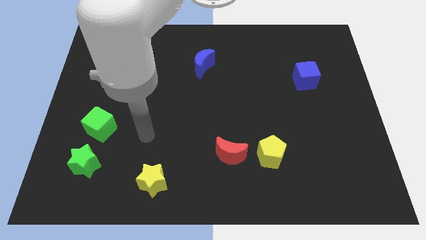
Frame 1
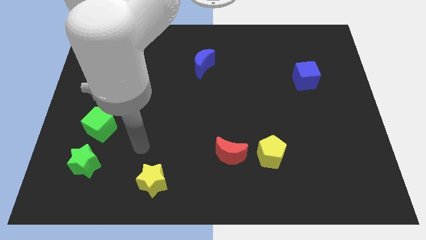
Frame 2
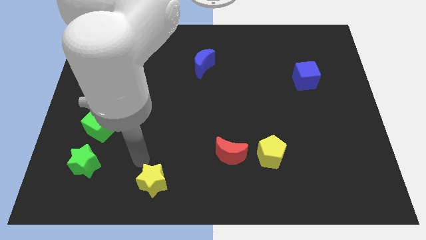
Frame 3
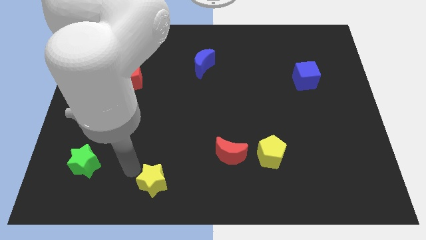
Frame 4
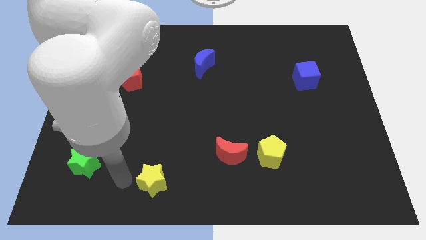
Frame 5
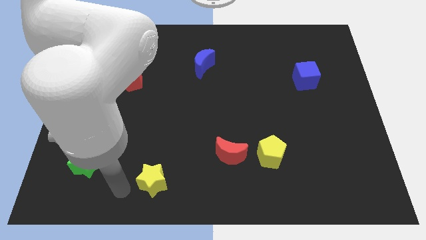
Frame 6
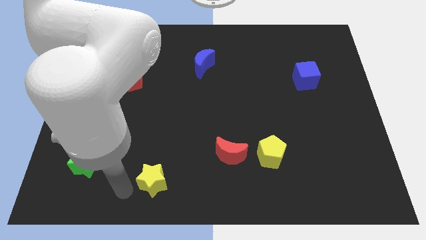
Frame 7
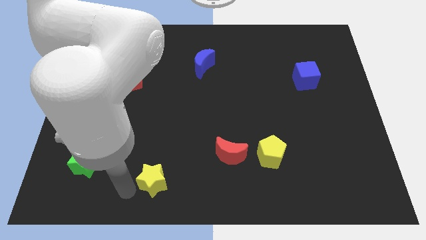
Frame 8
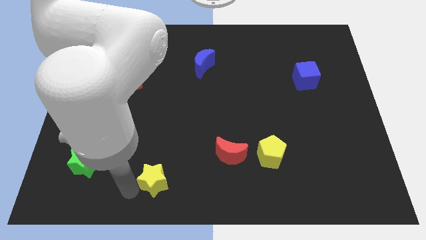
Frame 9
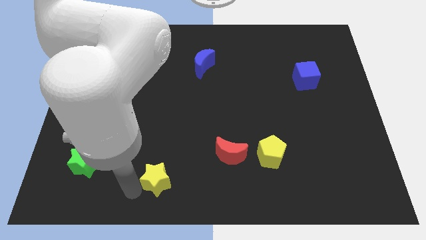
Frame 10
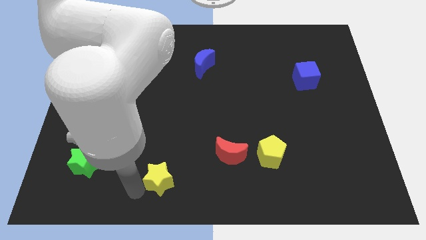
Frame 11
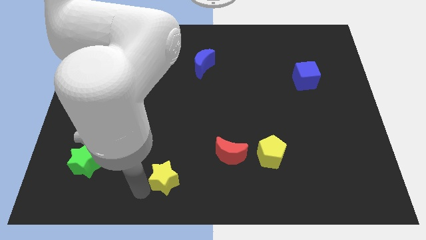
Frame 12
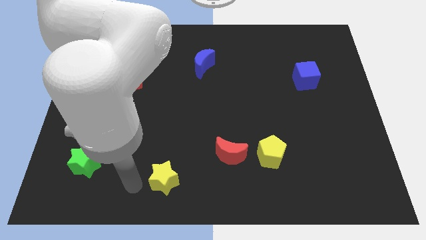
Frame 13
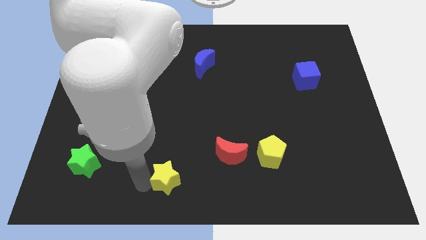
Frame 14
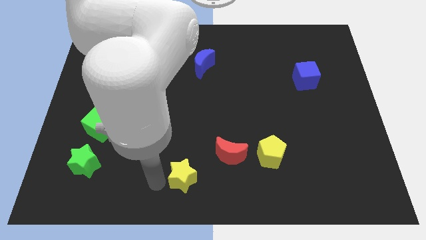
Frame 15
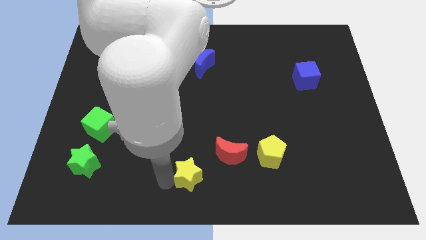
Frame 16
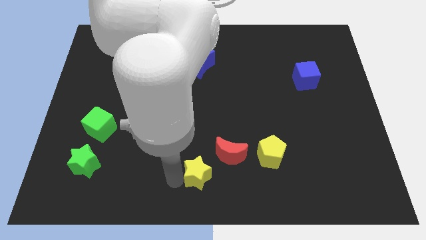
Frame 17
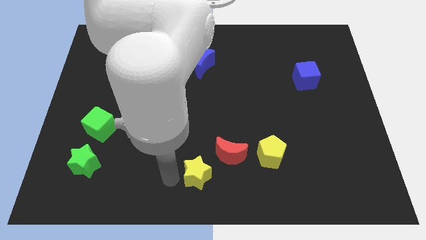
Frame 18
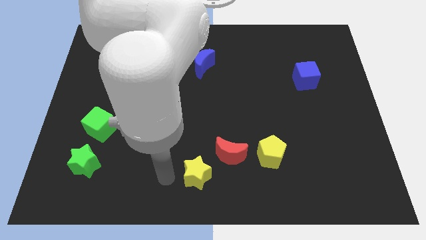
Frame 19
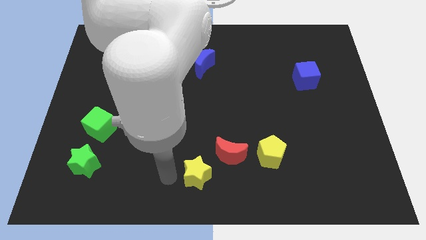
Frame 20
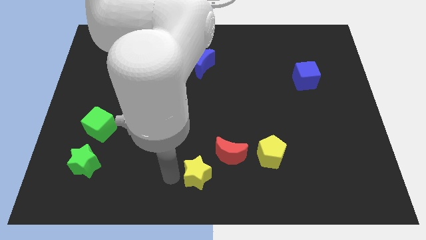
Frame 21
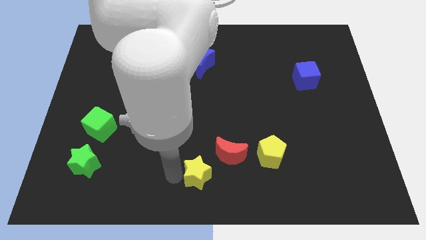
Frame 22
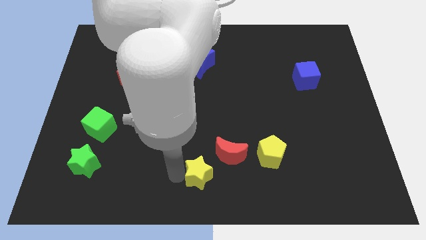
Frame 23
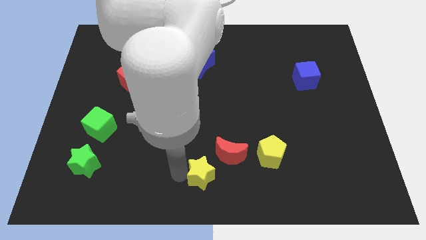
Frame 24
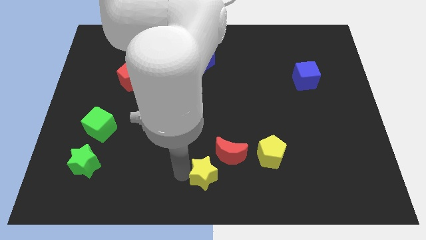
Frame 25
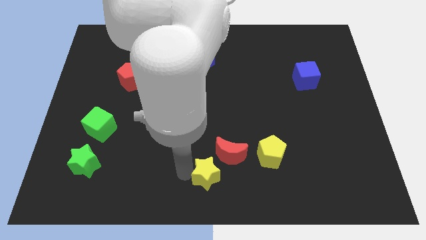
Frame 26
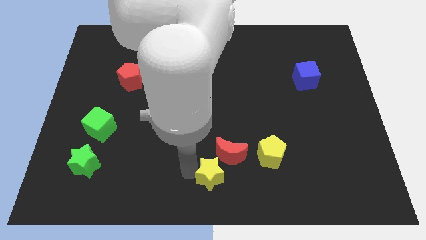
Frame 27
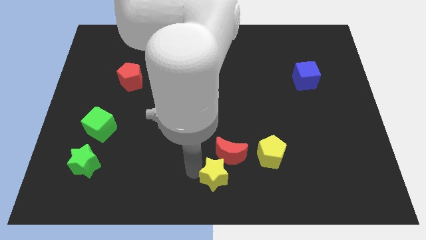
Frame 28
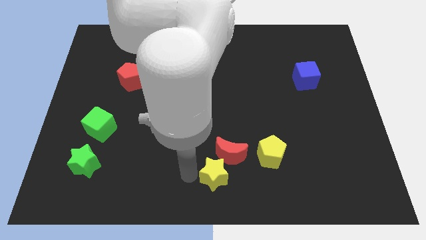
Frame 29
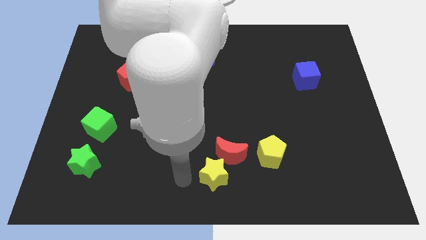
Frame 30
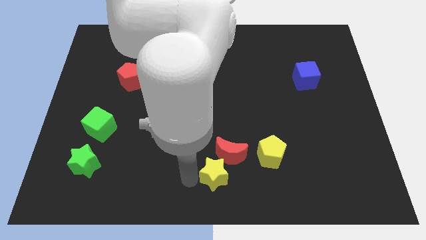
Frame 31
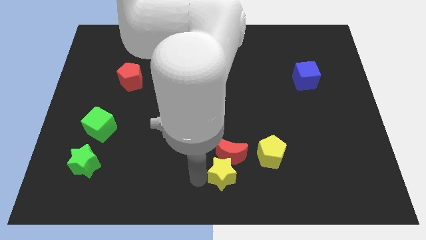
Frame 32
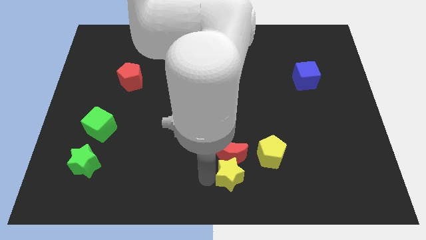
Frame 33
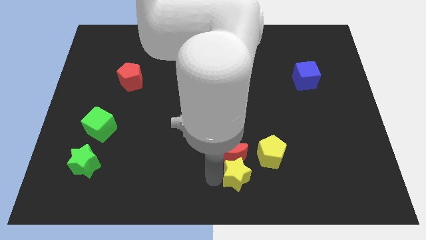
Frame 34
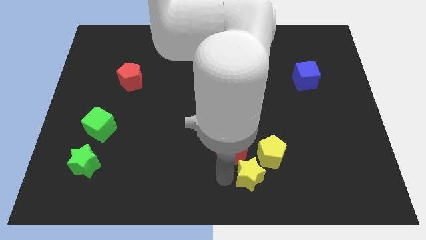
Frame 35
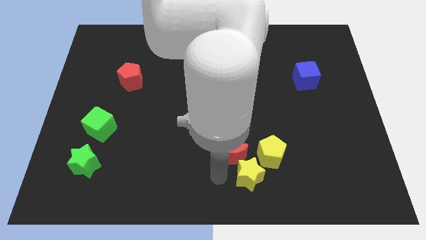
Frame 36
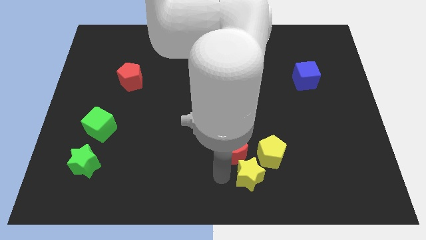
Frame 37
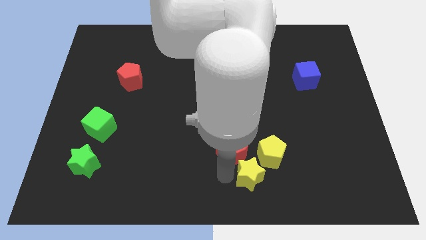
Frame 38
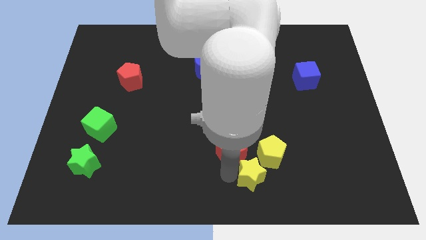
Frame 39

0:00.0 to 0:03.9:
push the yellow star to the right

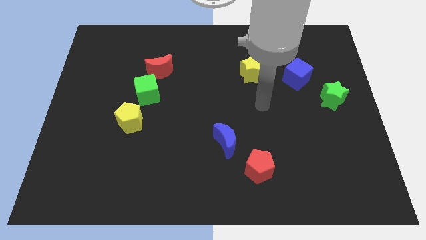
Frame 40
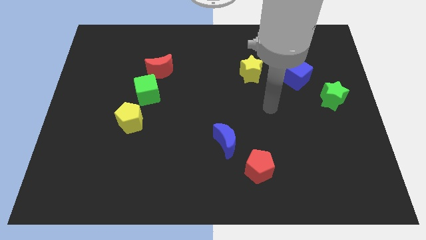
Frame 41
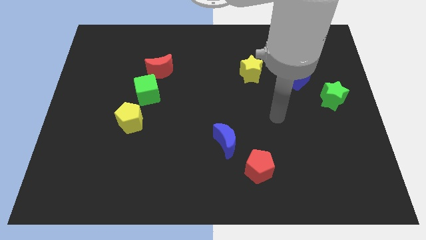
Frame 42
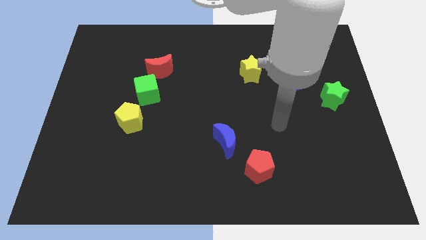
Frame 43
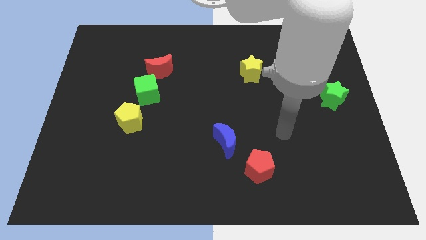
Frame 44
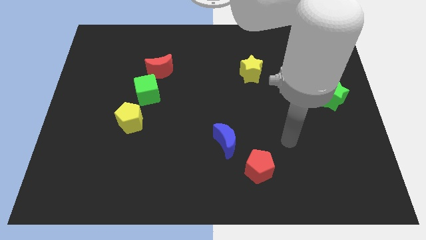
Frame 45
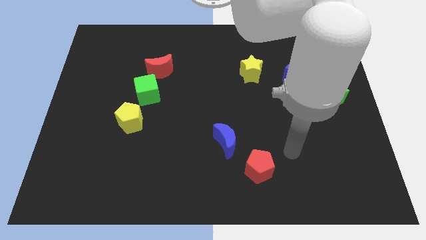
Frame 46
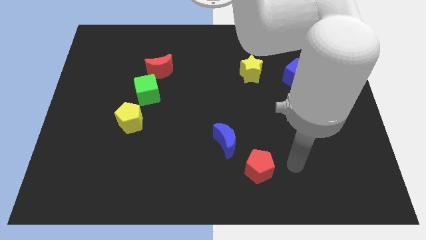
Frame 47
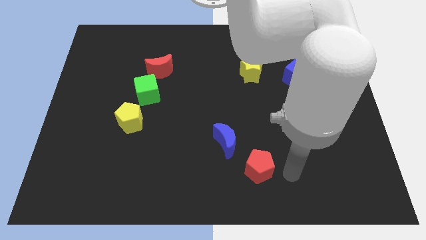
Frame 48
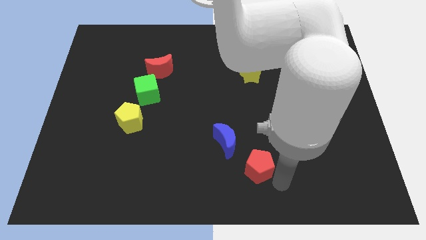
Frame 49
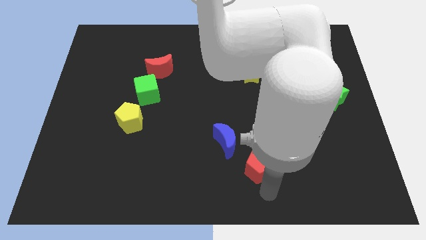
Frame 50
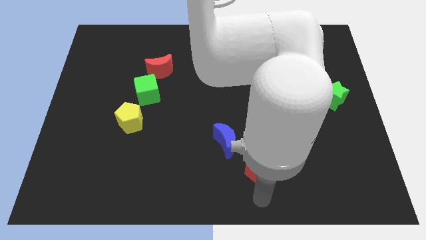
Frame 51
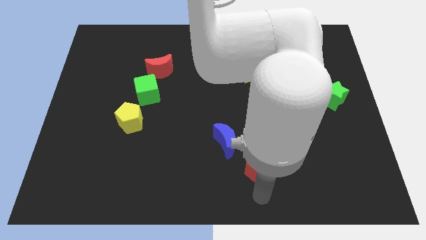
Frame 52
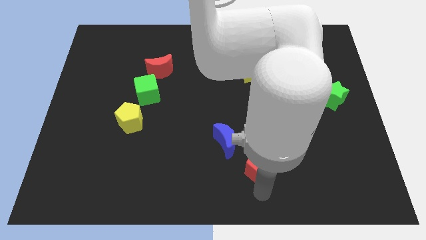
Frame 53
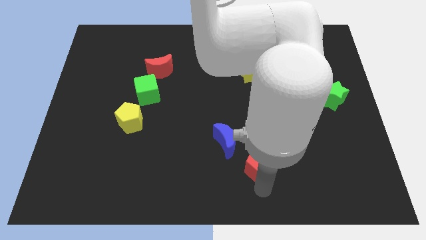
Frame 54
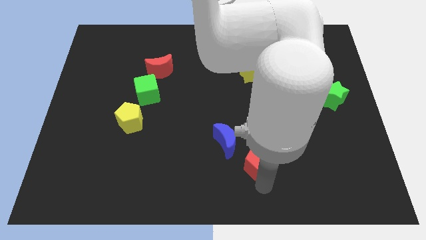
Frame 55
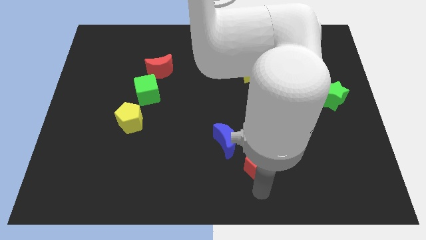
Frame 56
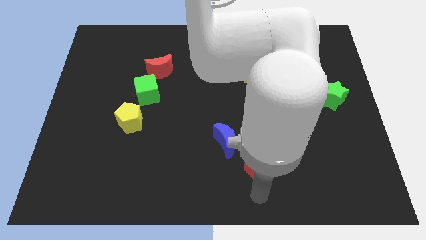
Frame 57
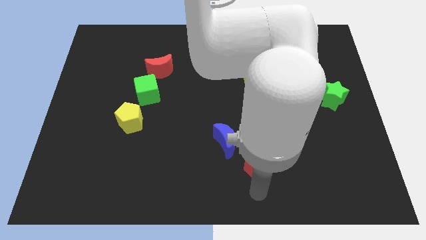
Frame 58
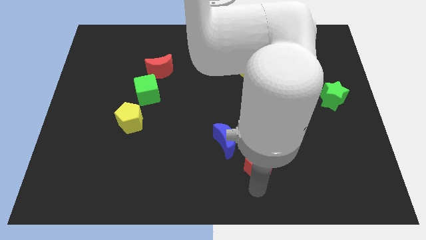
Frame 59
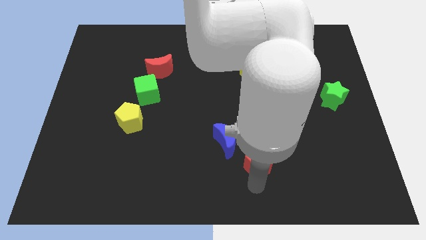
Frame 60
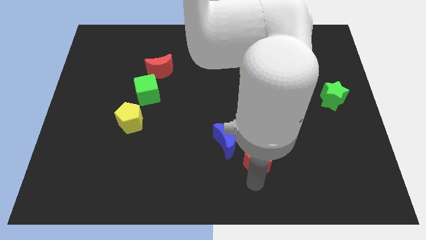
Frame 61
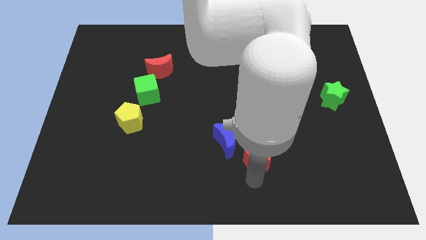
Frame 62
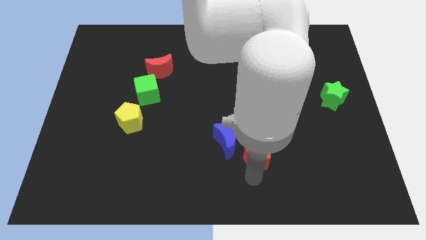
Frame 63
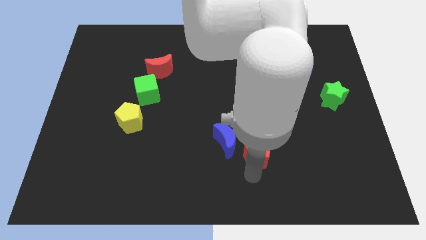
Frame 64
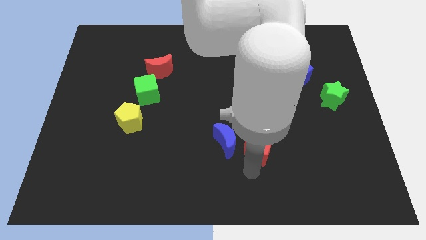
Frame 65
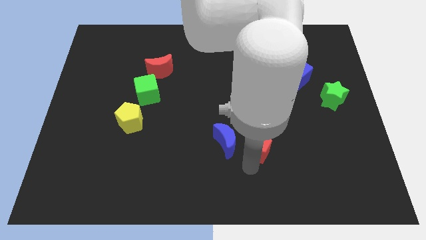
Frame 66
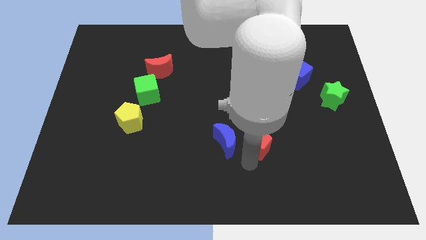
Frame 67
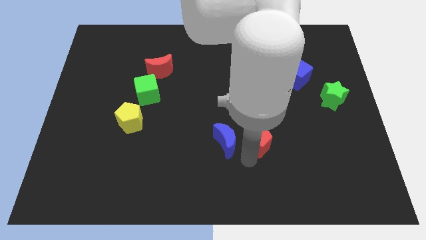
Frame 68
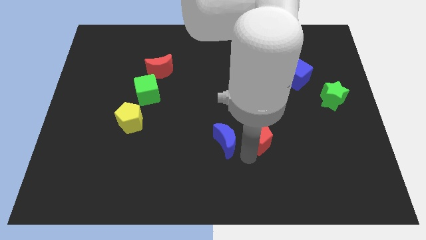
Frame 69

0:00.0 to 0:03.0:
slightly slide the red pentagon up

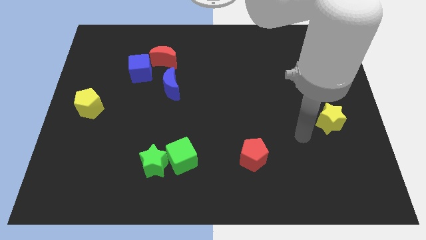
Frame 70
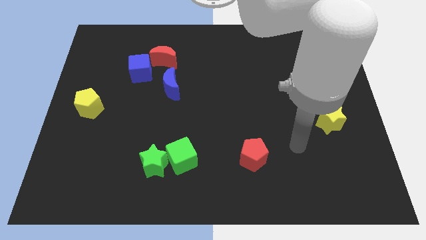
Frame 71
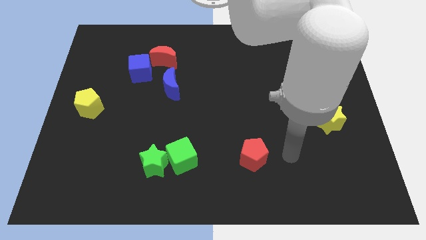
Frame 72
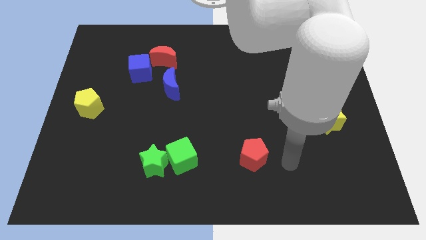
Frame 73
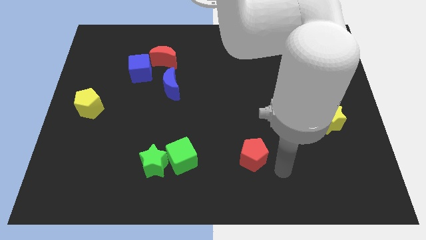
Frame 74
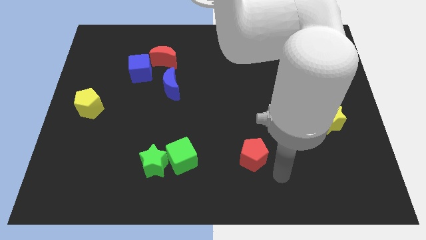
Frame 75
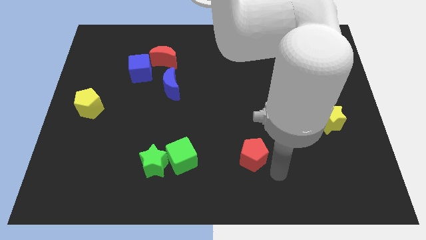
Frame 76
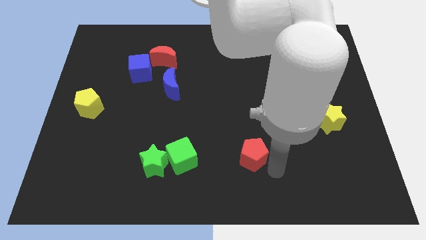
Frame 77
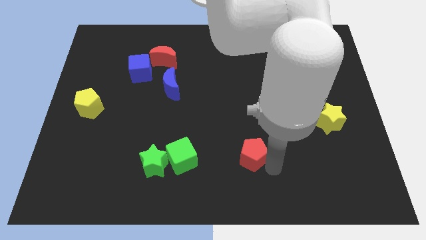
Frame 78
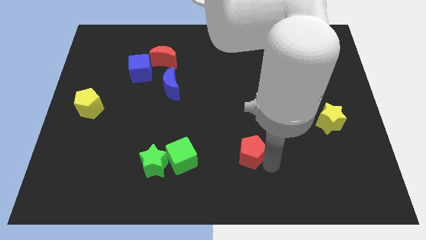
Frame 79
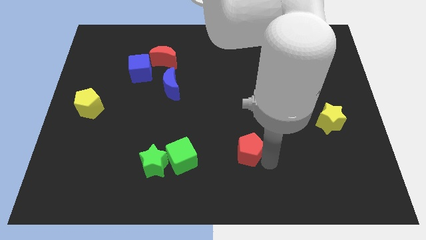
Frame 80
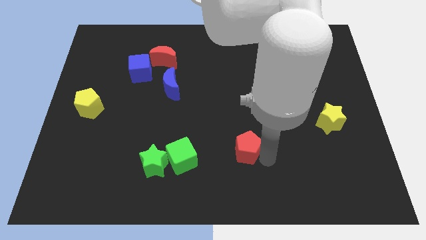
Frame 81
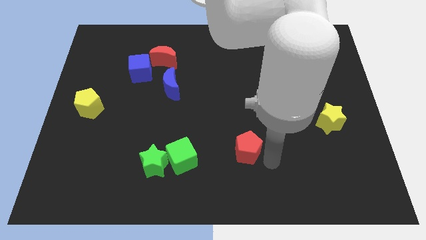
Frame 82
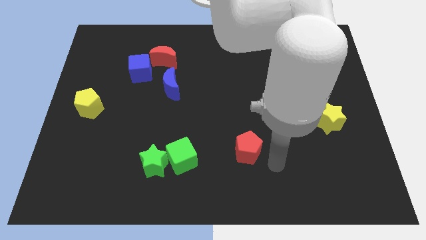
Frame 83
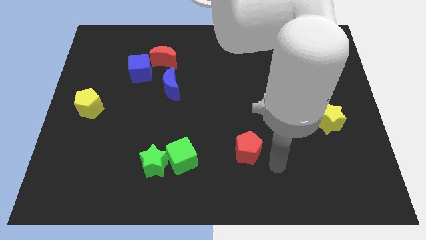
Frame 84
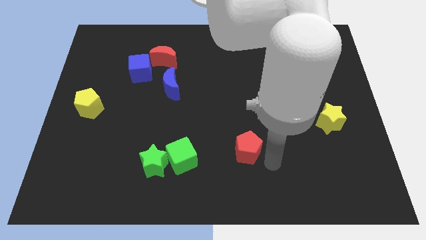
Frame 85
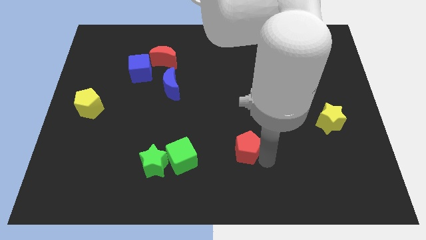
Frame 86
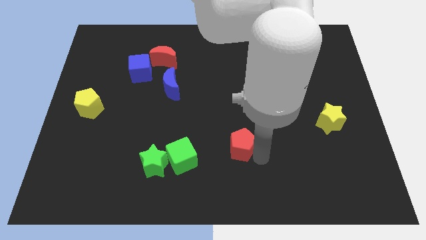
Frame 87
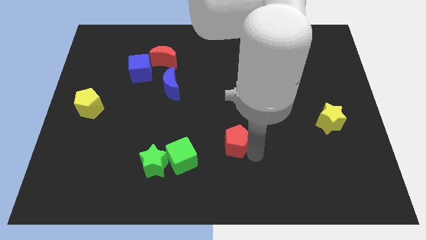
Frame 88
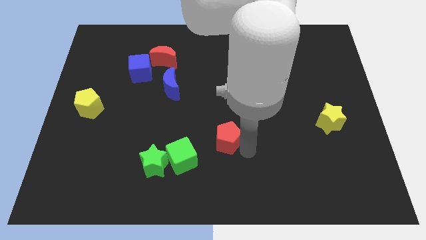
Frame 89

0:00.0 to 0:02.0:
move the red pentagon diagonally up and to the left slightly
